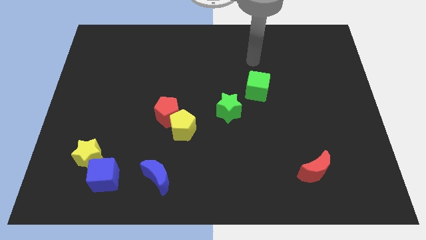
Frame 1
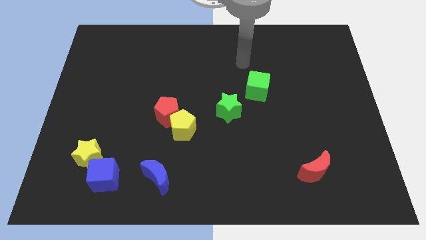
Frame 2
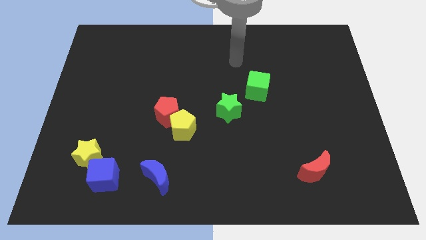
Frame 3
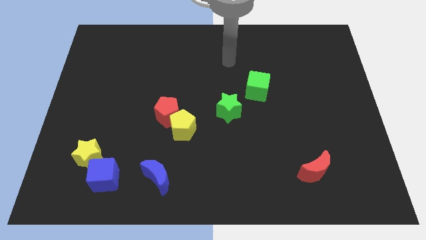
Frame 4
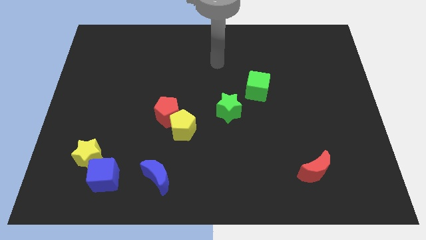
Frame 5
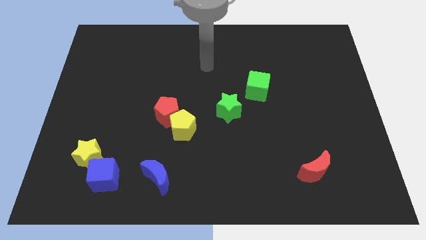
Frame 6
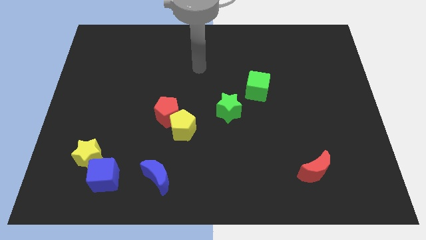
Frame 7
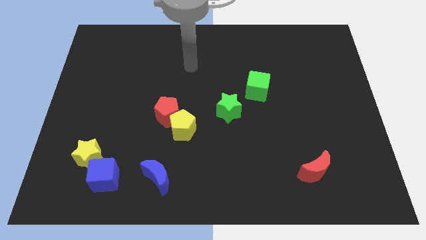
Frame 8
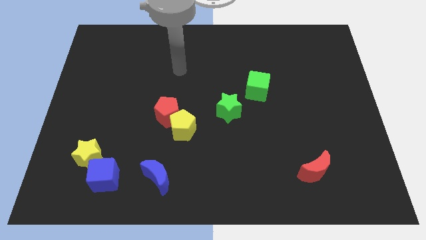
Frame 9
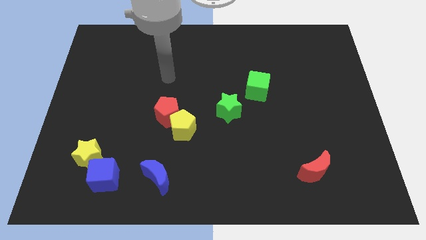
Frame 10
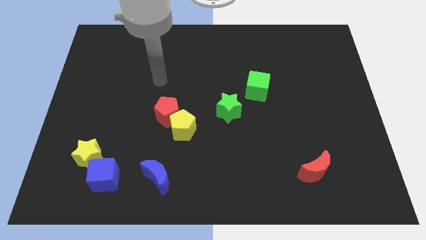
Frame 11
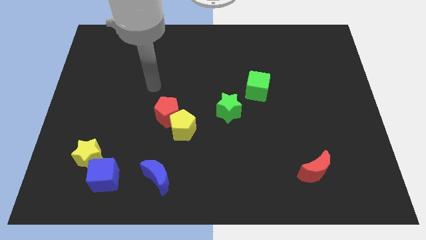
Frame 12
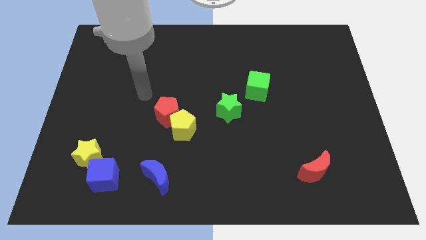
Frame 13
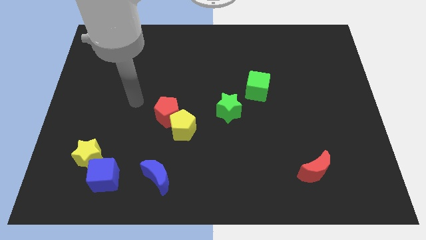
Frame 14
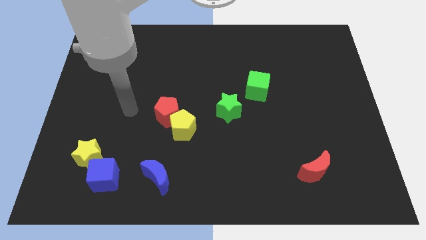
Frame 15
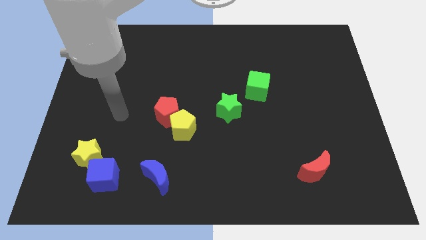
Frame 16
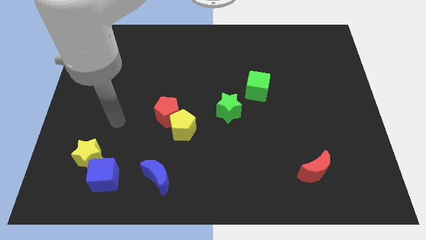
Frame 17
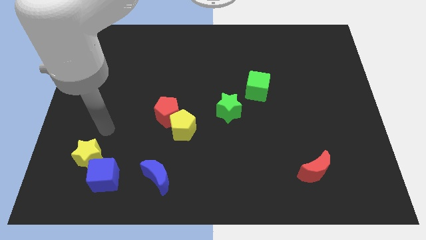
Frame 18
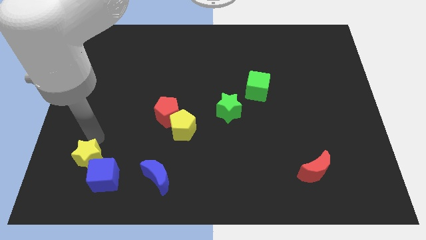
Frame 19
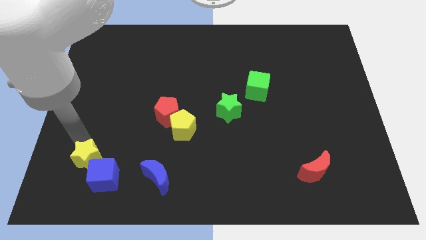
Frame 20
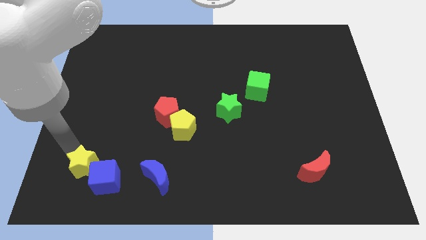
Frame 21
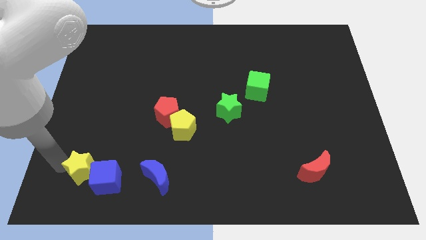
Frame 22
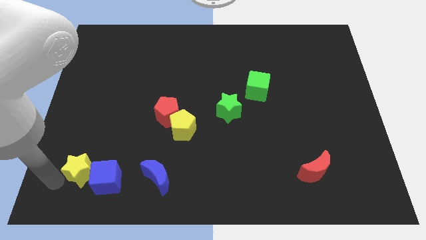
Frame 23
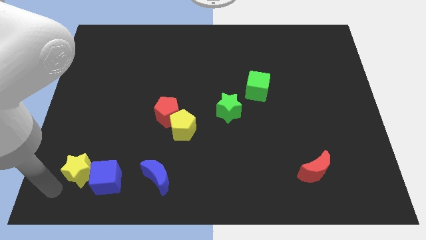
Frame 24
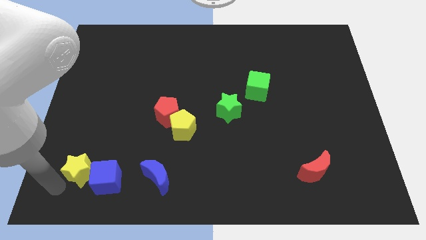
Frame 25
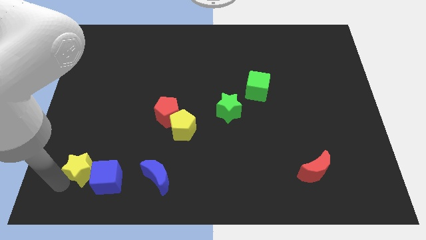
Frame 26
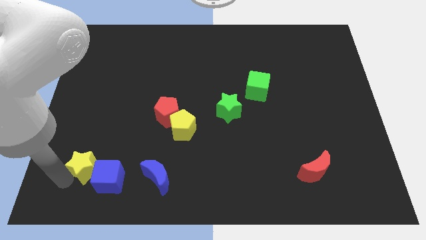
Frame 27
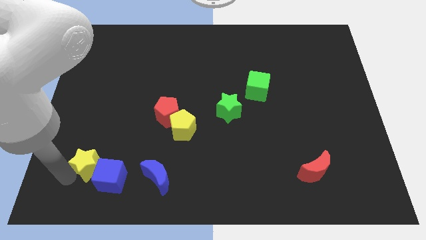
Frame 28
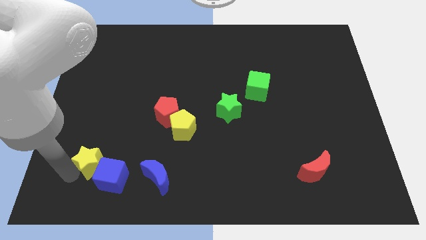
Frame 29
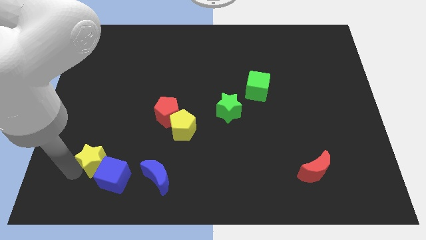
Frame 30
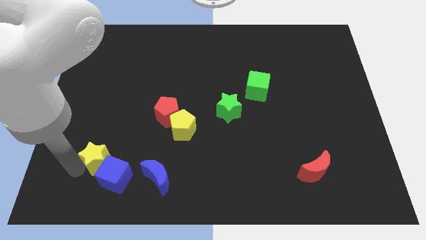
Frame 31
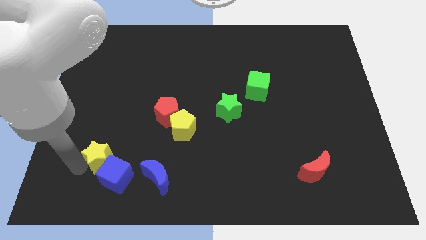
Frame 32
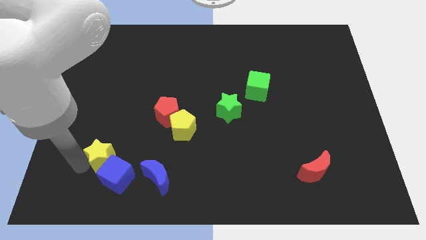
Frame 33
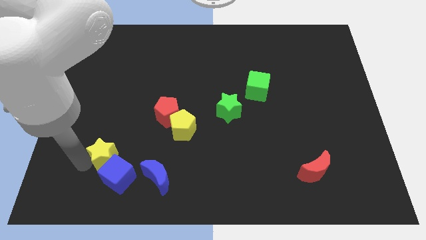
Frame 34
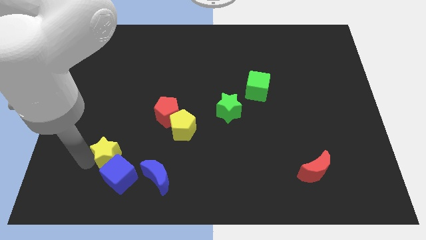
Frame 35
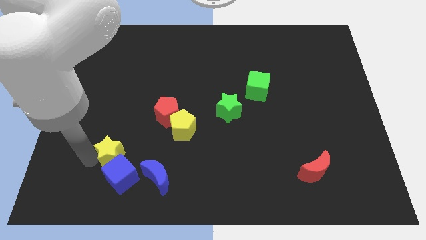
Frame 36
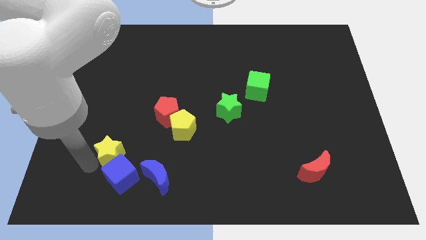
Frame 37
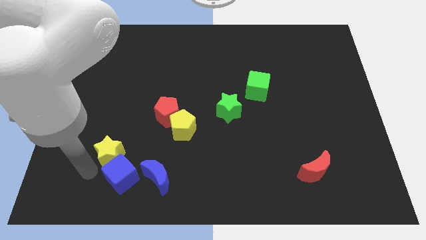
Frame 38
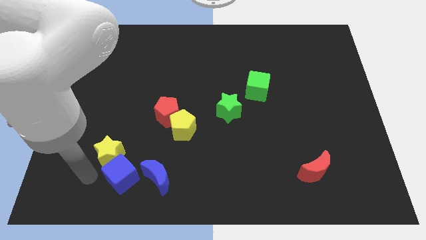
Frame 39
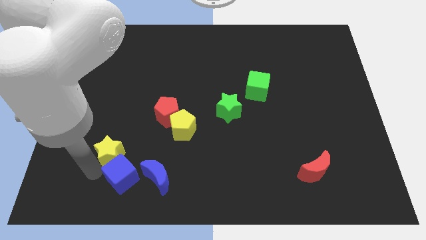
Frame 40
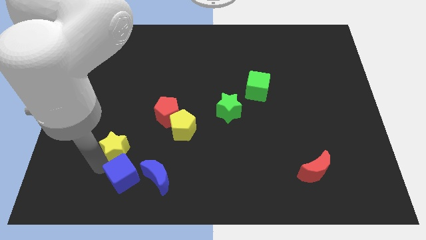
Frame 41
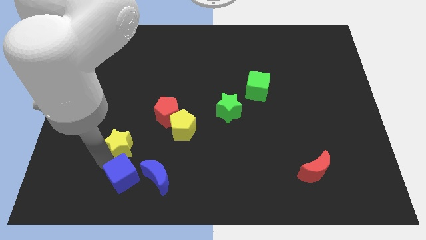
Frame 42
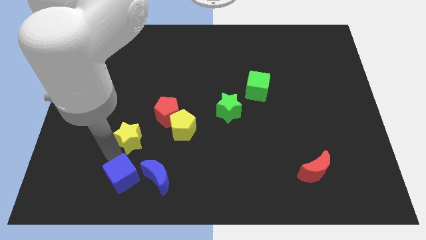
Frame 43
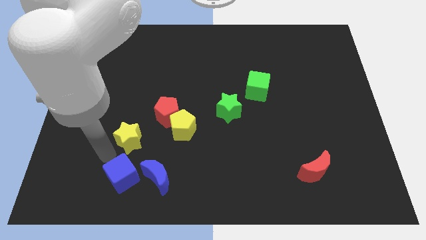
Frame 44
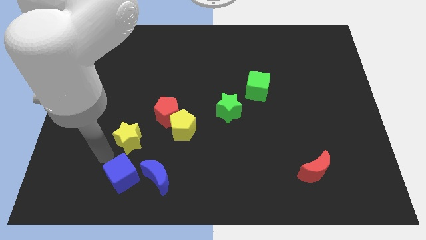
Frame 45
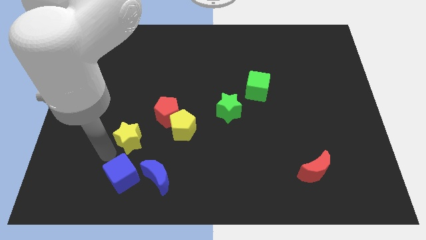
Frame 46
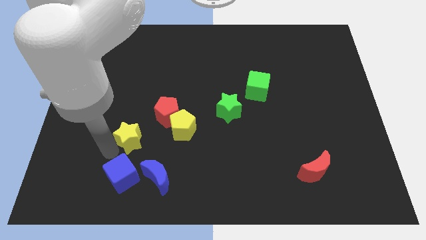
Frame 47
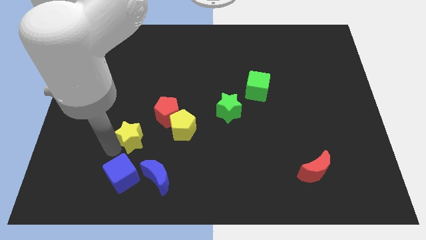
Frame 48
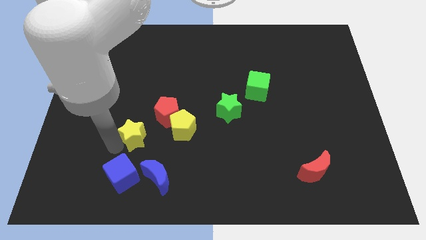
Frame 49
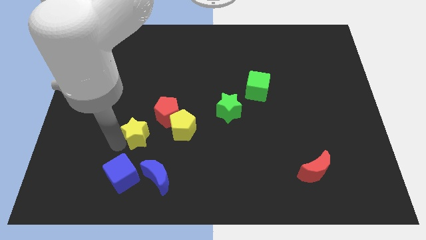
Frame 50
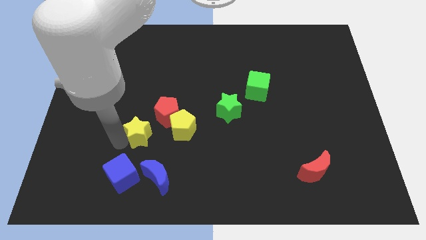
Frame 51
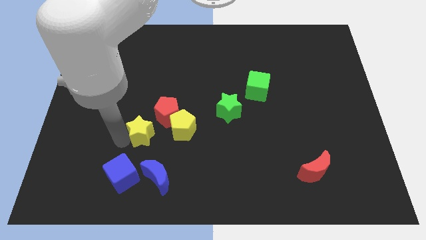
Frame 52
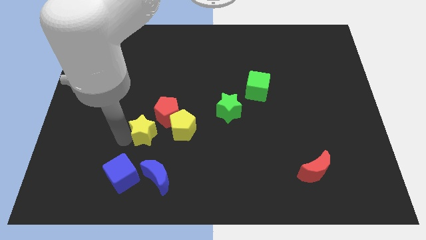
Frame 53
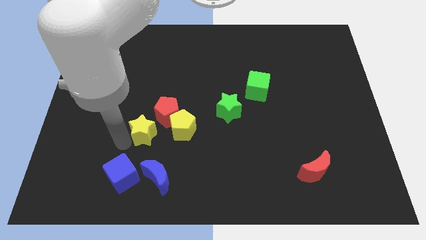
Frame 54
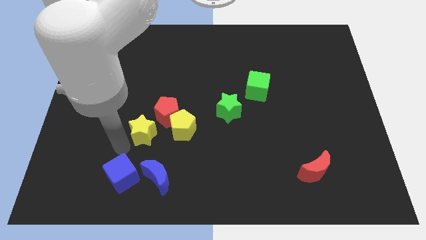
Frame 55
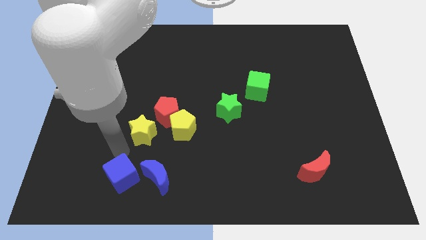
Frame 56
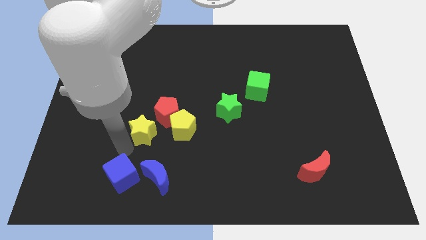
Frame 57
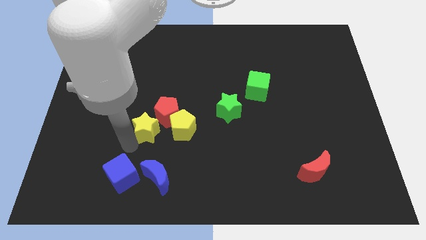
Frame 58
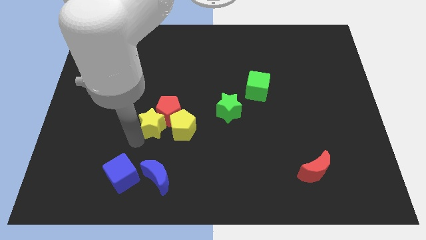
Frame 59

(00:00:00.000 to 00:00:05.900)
move the yellow star towards the red pentagon

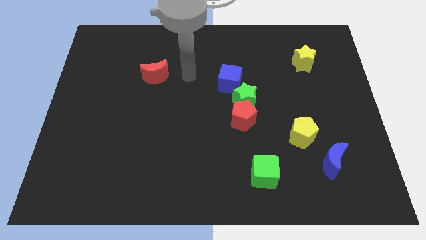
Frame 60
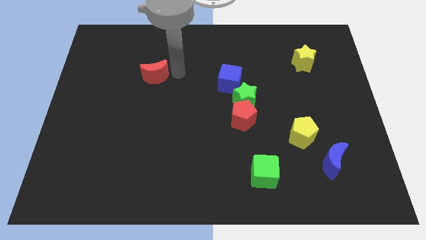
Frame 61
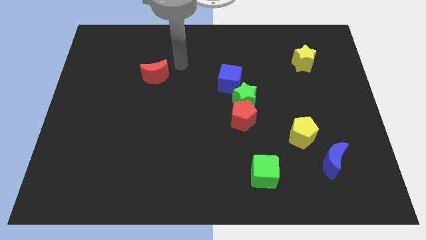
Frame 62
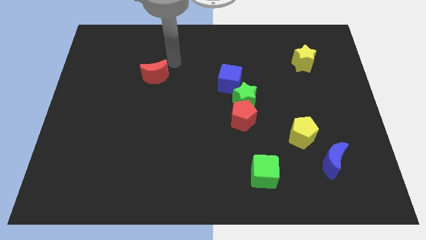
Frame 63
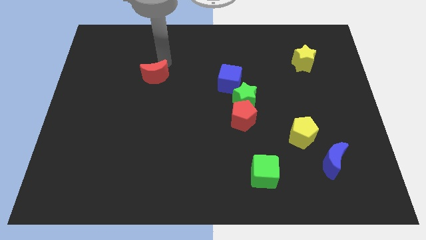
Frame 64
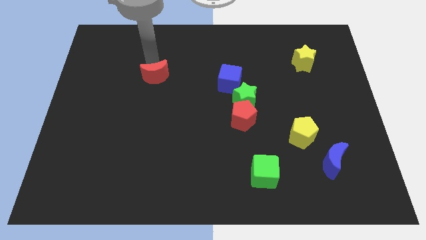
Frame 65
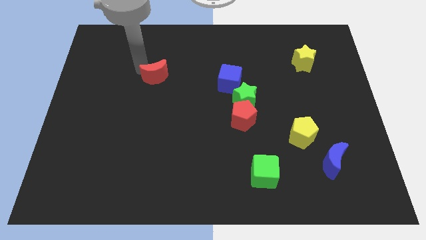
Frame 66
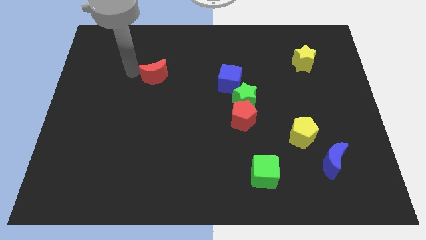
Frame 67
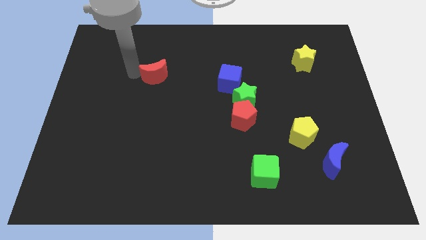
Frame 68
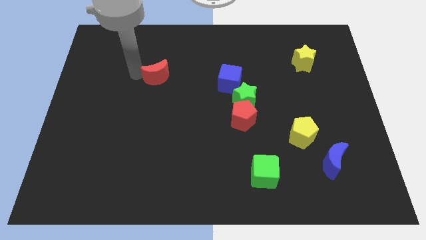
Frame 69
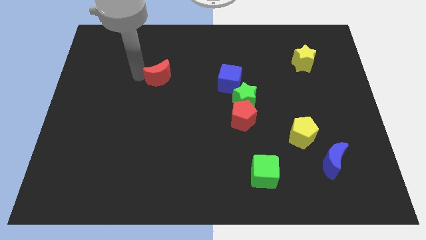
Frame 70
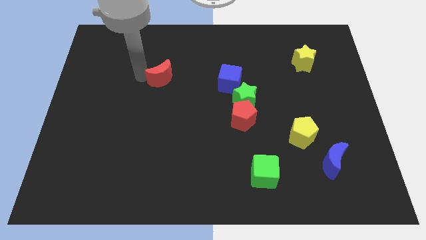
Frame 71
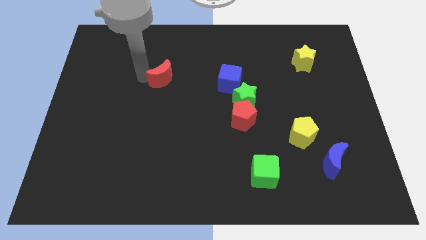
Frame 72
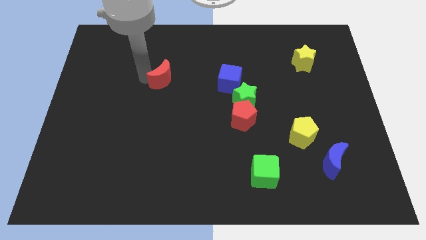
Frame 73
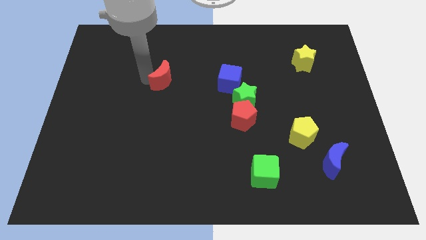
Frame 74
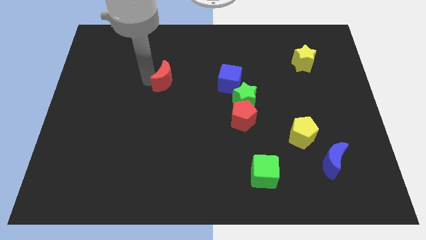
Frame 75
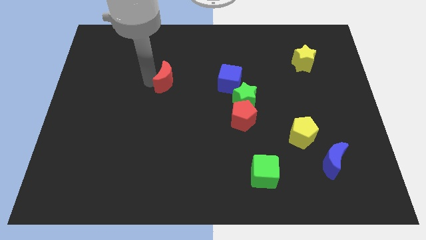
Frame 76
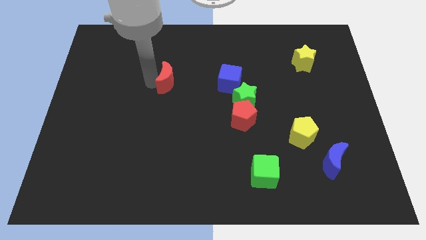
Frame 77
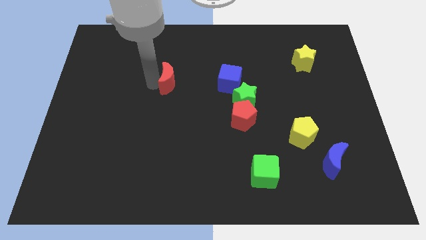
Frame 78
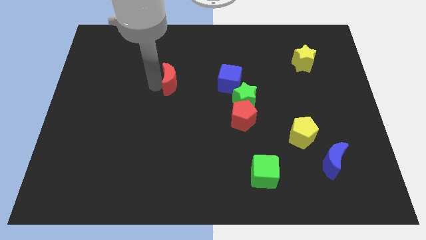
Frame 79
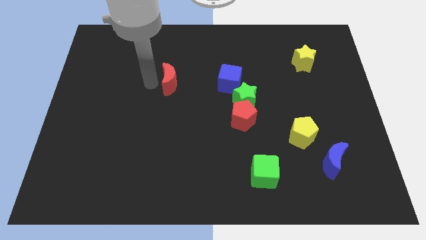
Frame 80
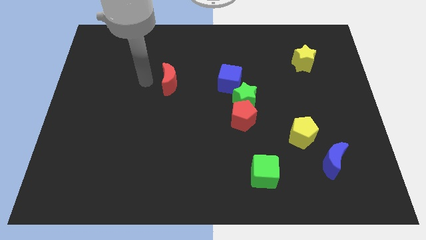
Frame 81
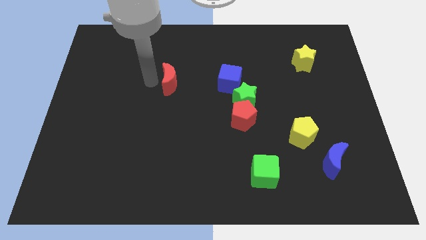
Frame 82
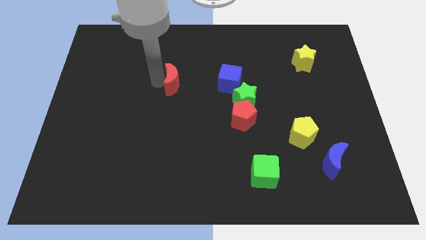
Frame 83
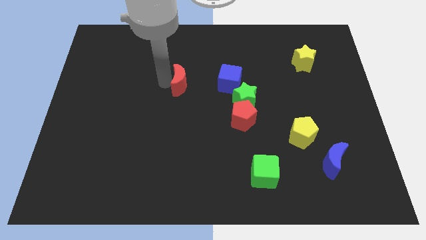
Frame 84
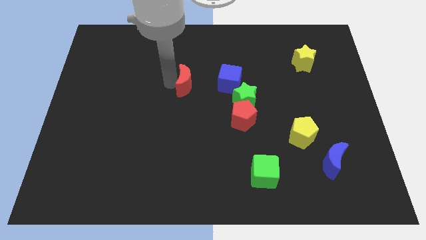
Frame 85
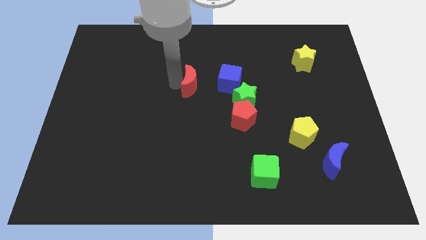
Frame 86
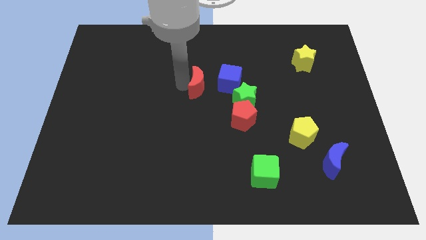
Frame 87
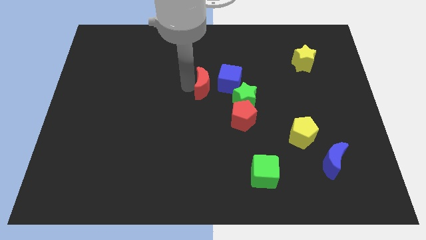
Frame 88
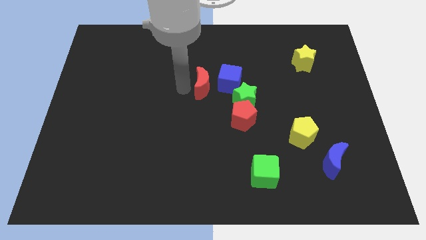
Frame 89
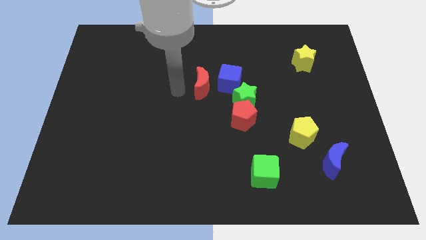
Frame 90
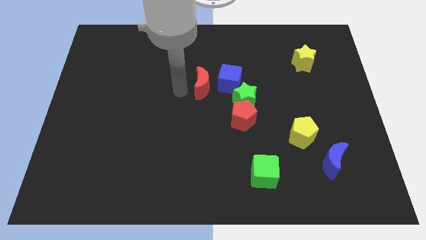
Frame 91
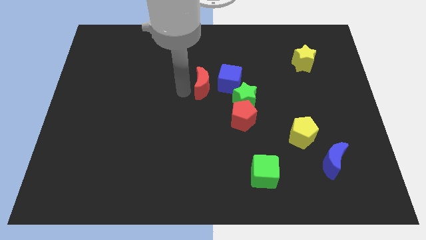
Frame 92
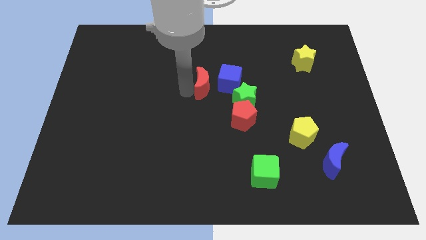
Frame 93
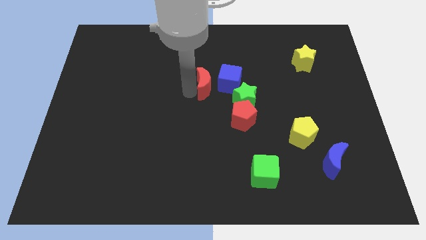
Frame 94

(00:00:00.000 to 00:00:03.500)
slide the red moon towards the blue cube
